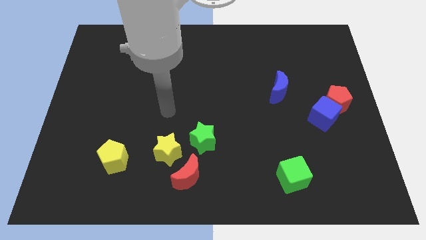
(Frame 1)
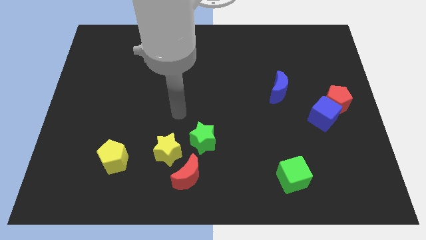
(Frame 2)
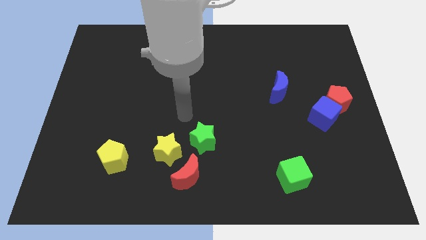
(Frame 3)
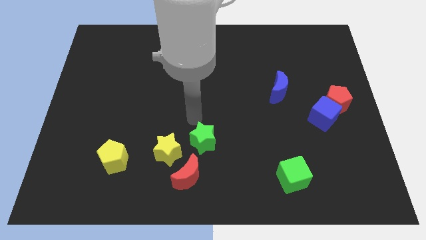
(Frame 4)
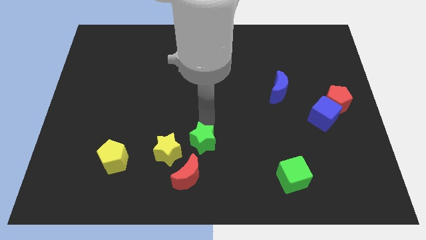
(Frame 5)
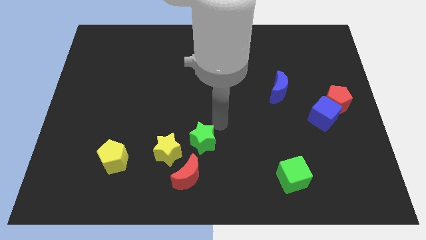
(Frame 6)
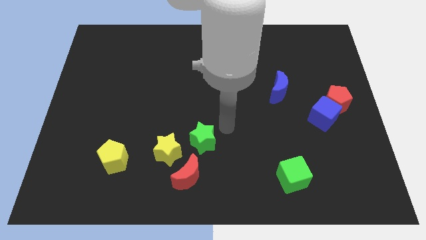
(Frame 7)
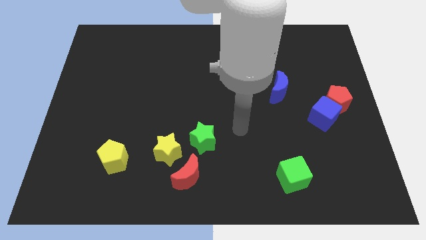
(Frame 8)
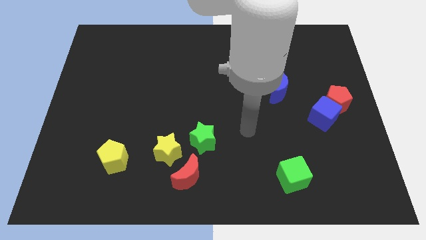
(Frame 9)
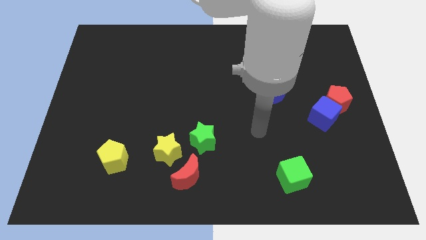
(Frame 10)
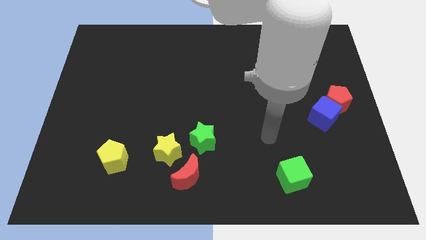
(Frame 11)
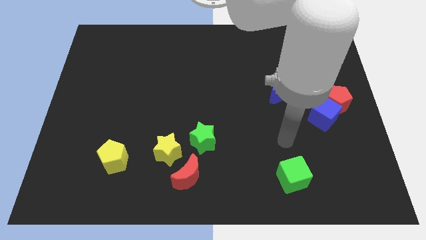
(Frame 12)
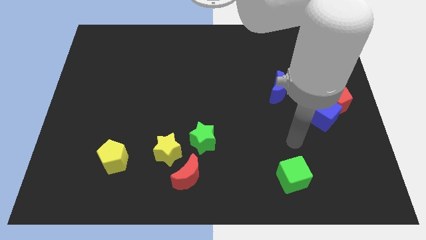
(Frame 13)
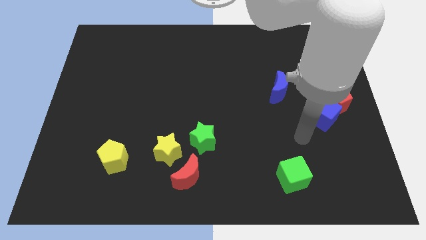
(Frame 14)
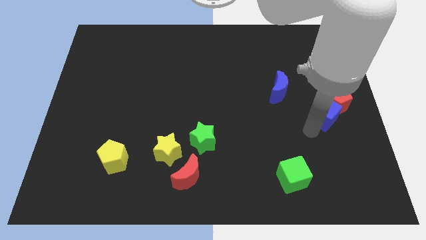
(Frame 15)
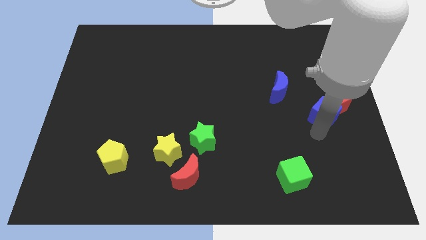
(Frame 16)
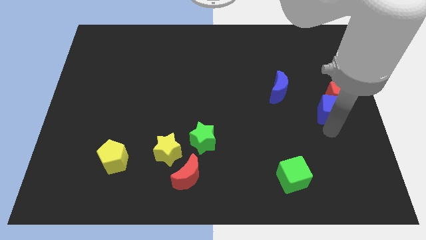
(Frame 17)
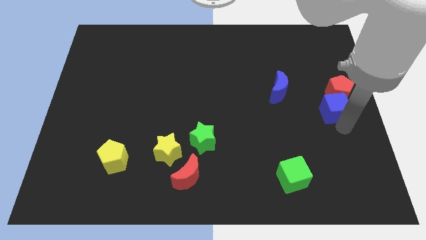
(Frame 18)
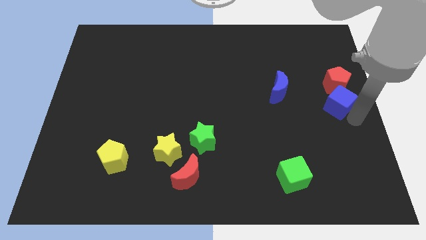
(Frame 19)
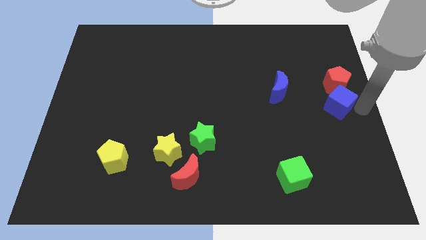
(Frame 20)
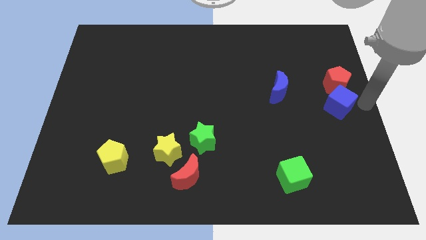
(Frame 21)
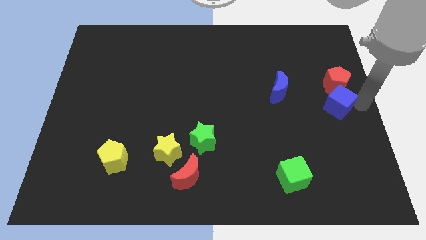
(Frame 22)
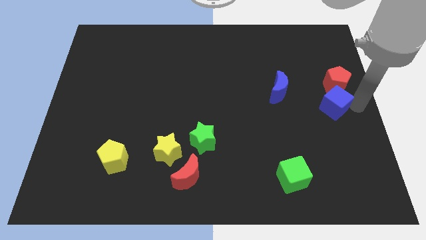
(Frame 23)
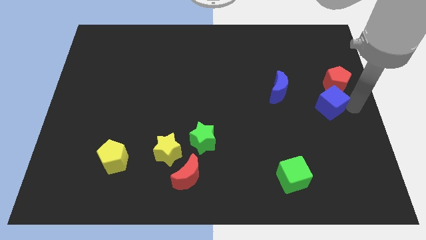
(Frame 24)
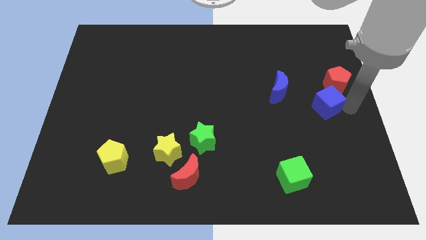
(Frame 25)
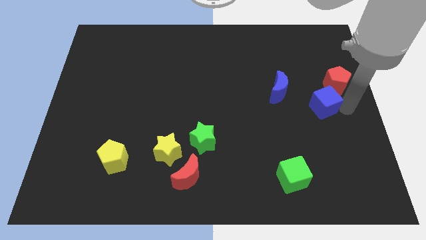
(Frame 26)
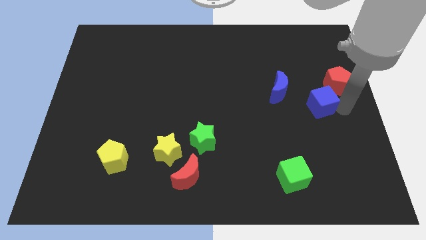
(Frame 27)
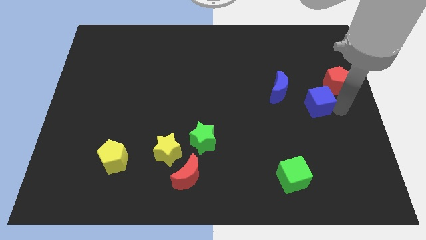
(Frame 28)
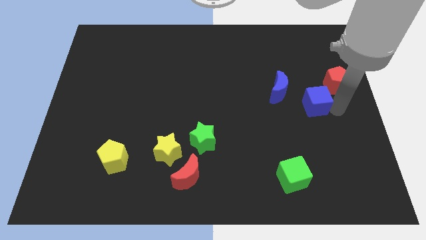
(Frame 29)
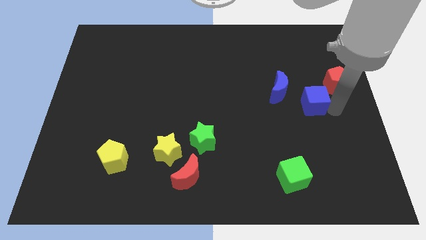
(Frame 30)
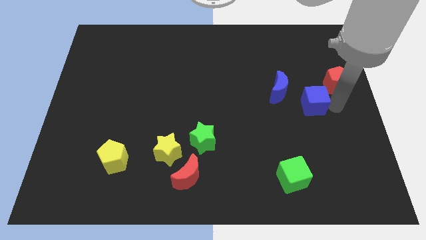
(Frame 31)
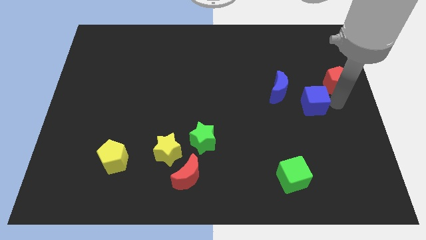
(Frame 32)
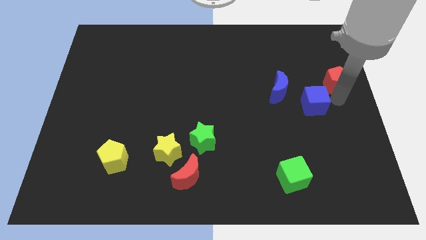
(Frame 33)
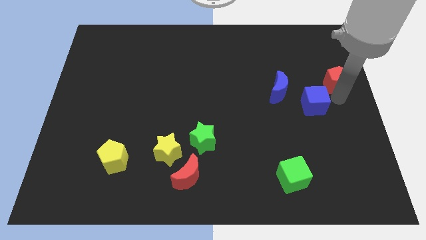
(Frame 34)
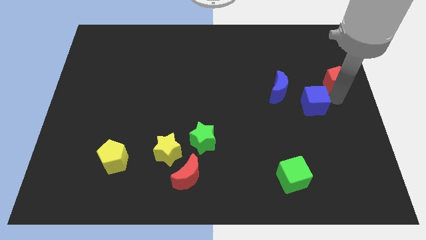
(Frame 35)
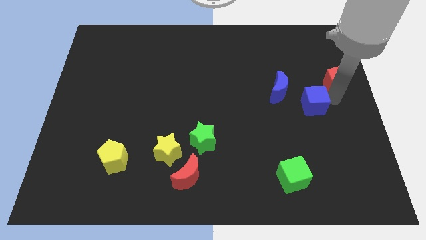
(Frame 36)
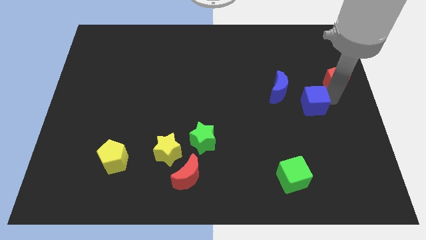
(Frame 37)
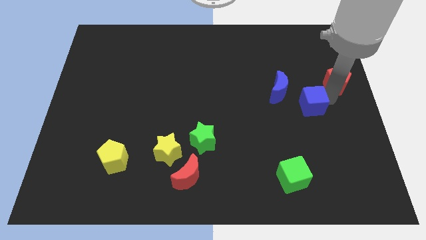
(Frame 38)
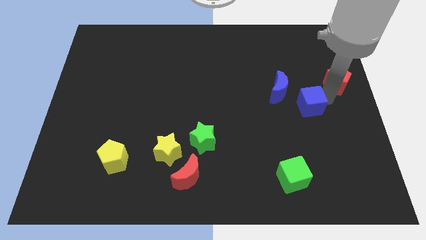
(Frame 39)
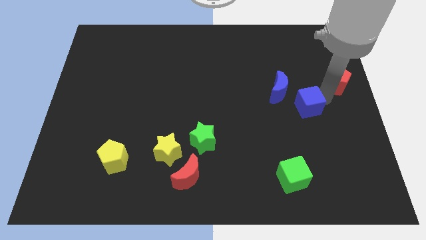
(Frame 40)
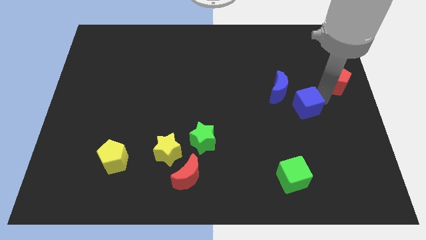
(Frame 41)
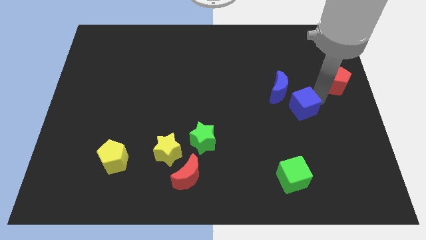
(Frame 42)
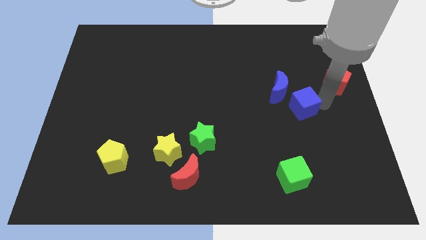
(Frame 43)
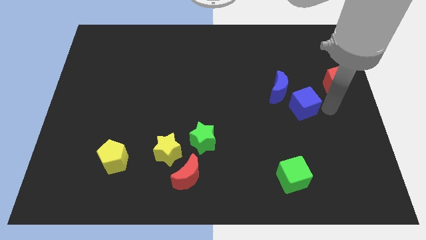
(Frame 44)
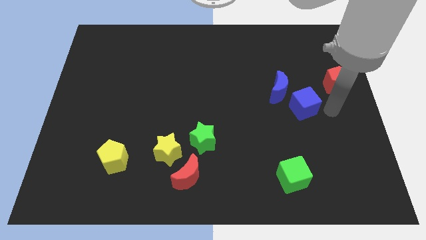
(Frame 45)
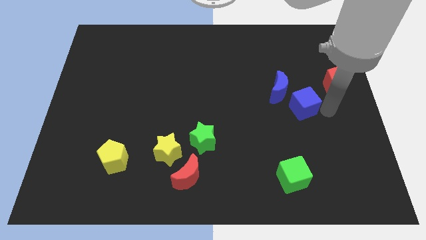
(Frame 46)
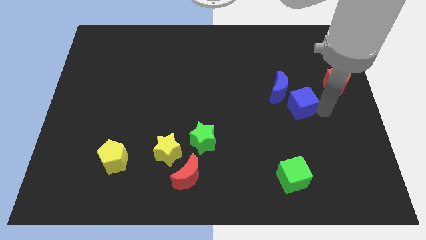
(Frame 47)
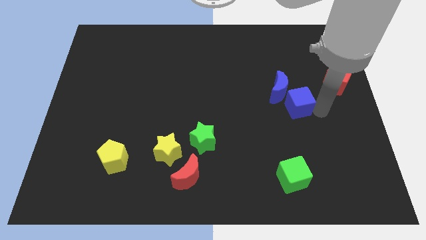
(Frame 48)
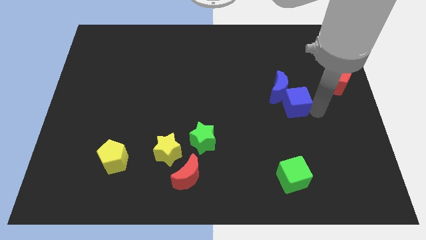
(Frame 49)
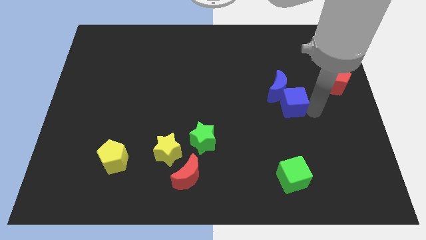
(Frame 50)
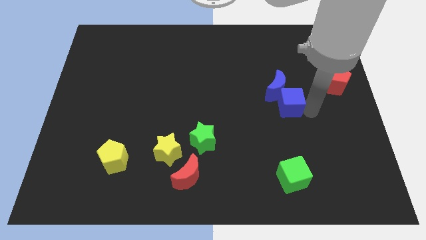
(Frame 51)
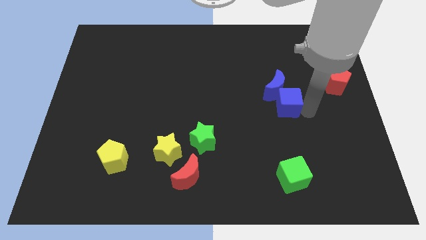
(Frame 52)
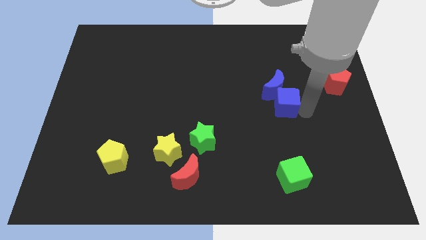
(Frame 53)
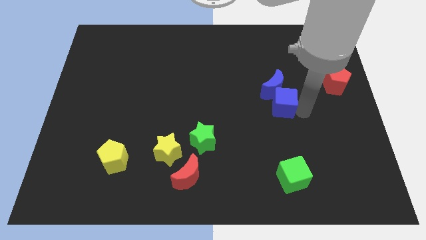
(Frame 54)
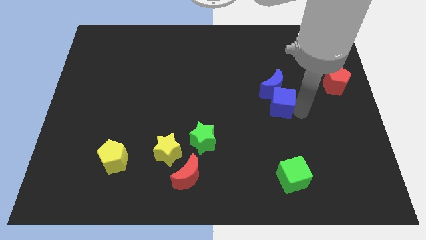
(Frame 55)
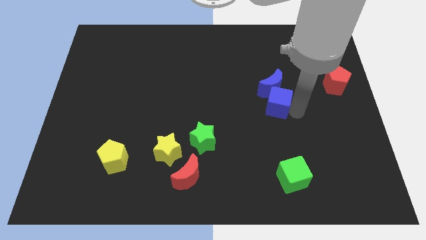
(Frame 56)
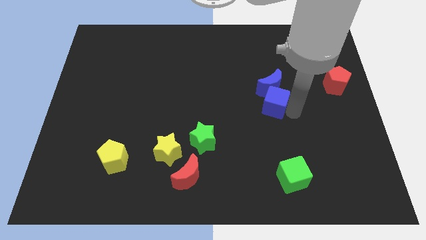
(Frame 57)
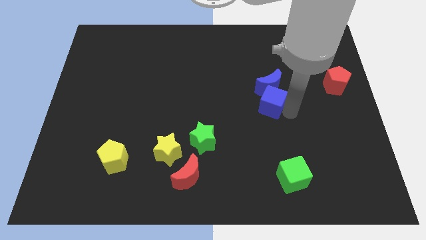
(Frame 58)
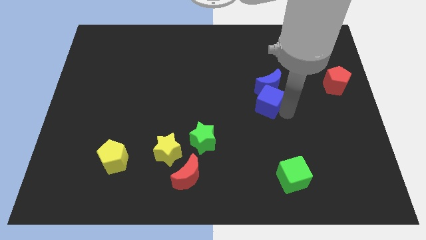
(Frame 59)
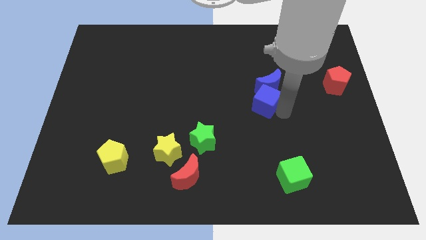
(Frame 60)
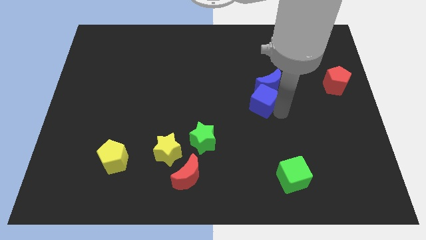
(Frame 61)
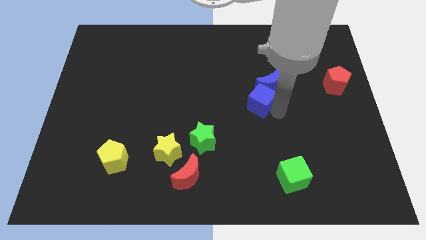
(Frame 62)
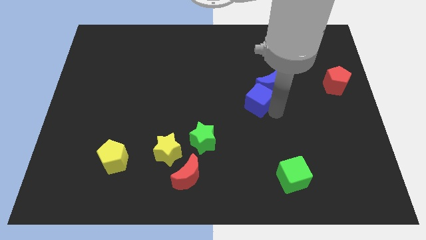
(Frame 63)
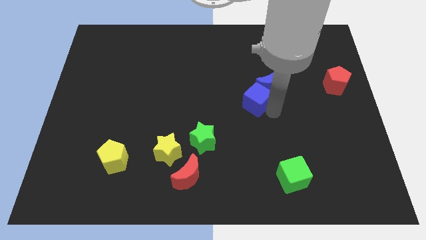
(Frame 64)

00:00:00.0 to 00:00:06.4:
put the blue cube to the left of the blue moon
